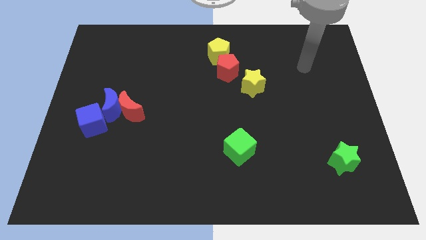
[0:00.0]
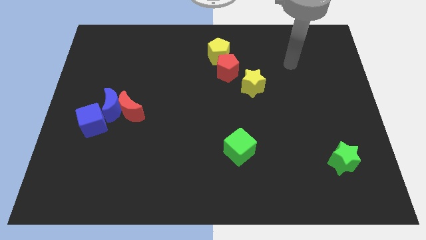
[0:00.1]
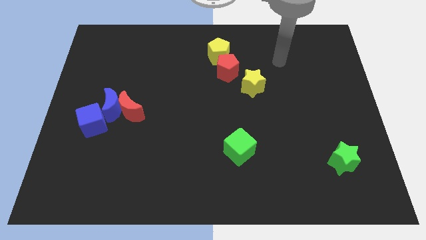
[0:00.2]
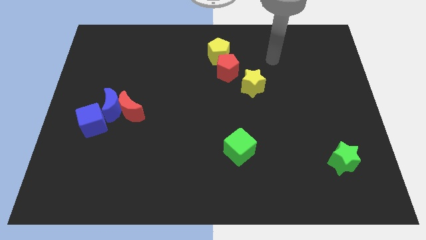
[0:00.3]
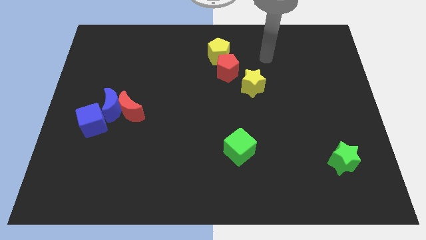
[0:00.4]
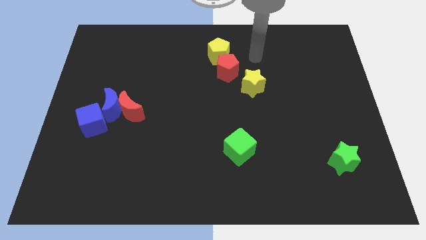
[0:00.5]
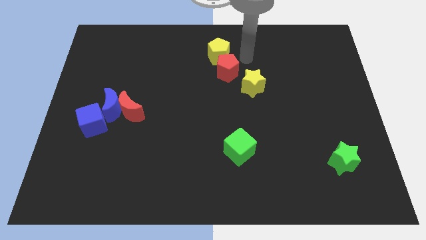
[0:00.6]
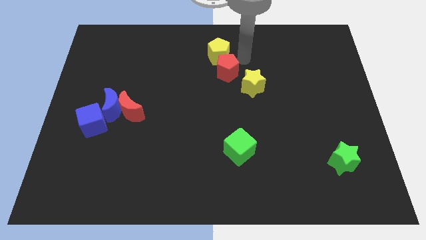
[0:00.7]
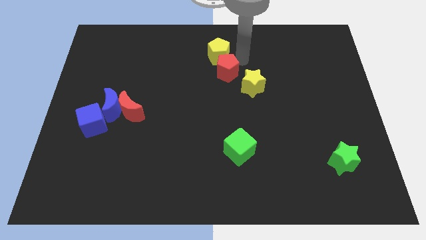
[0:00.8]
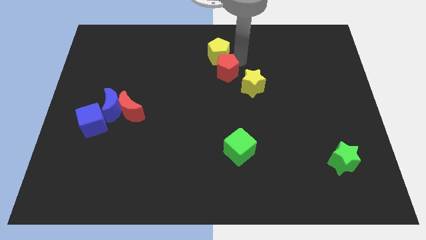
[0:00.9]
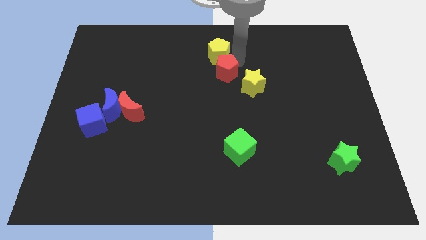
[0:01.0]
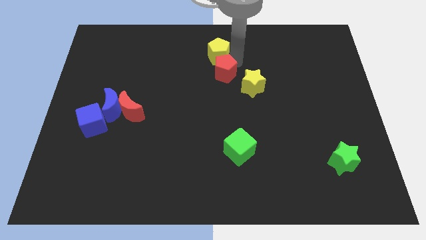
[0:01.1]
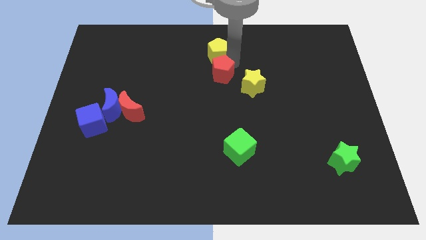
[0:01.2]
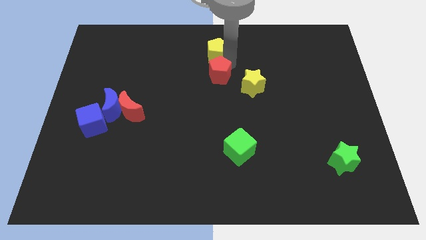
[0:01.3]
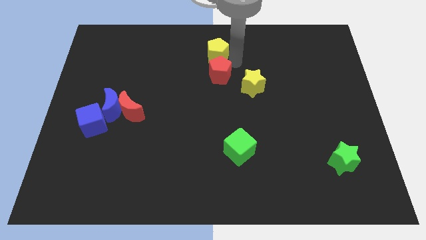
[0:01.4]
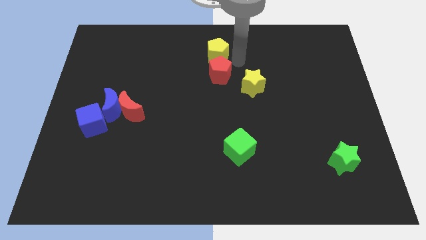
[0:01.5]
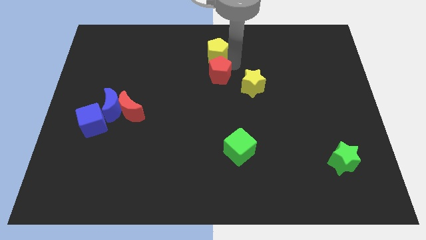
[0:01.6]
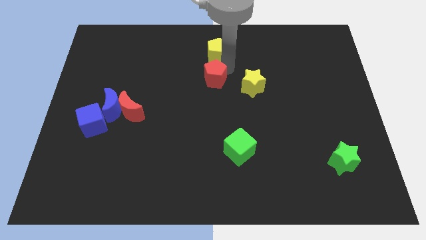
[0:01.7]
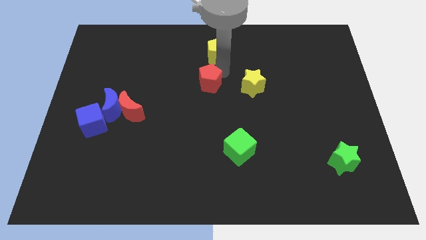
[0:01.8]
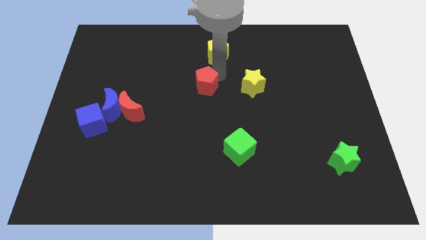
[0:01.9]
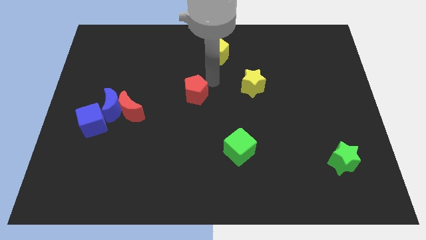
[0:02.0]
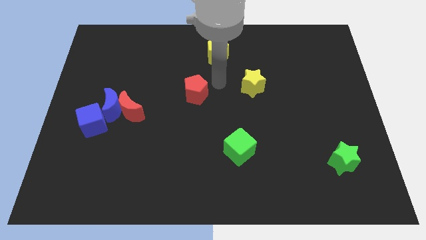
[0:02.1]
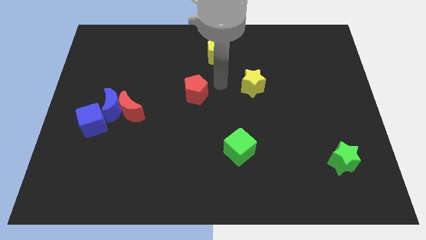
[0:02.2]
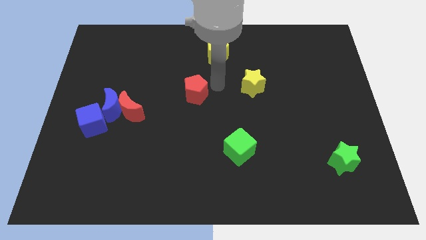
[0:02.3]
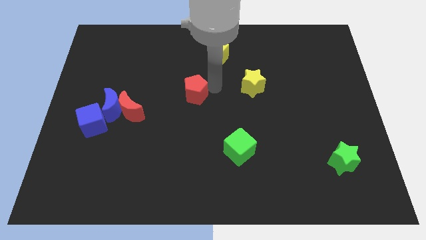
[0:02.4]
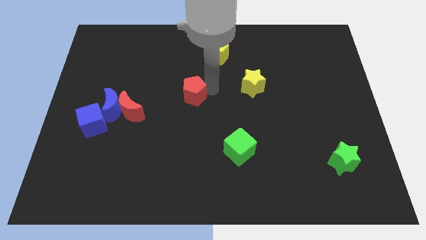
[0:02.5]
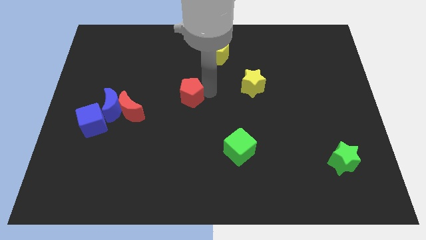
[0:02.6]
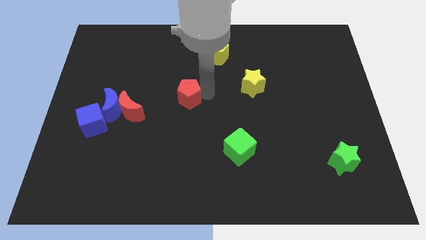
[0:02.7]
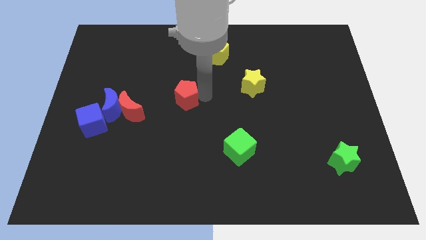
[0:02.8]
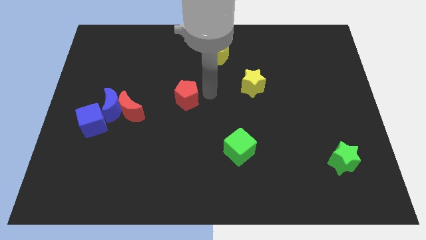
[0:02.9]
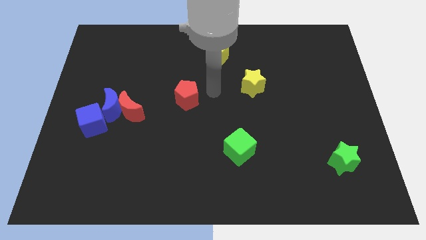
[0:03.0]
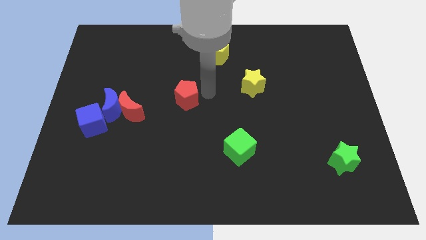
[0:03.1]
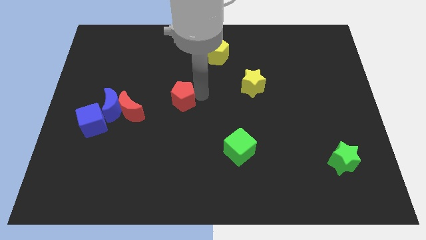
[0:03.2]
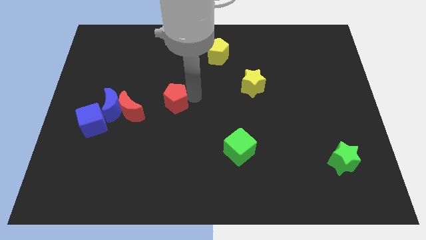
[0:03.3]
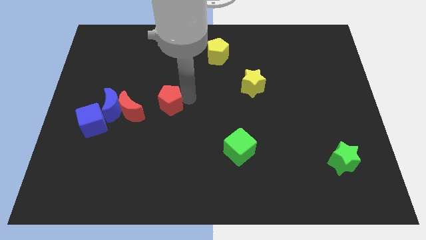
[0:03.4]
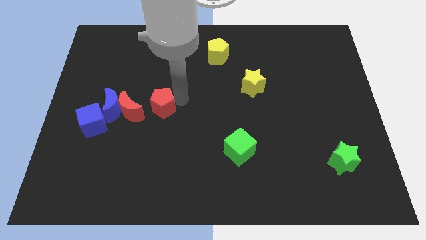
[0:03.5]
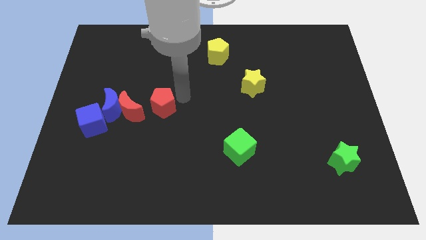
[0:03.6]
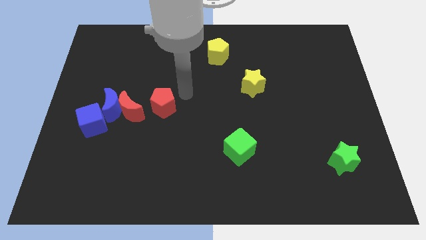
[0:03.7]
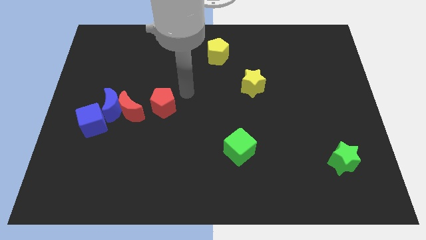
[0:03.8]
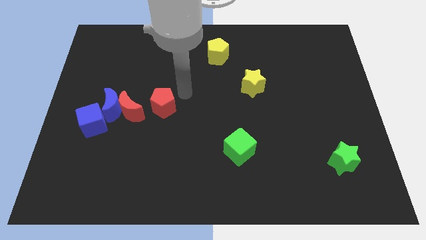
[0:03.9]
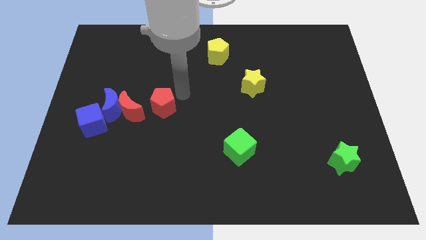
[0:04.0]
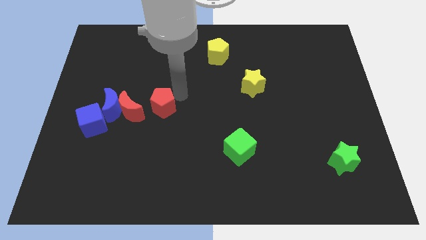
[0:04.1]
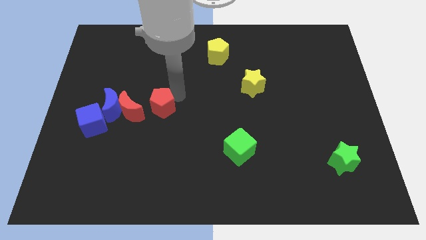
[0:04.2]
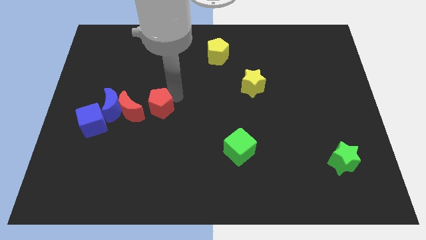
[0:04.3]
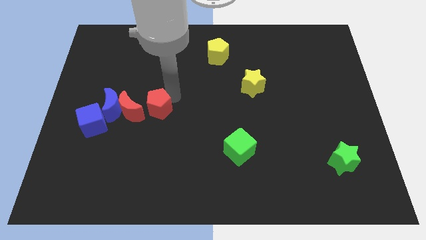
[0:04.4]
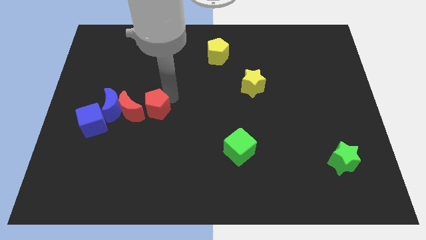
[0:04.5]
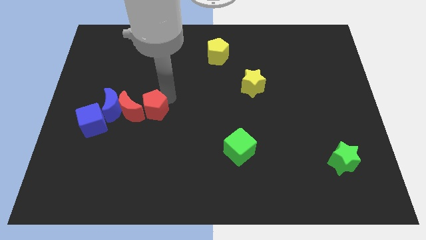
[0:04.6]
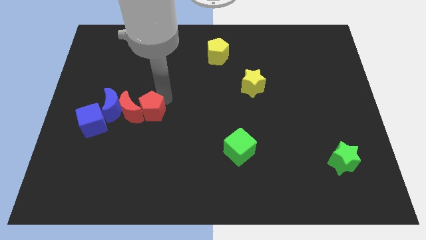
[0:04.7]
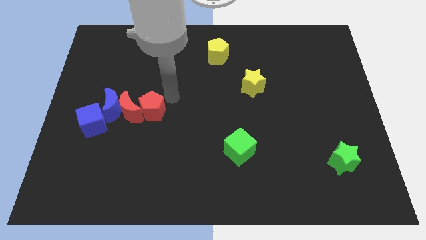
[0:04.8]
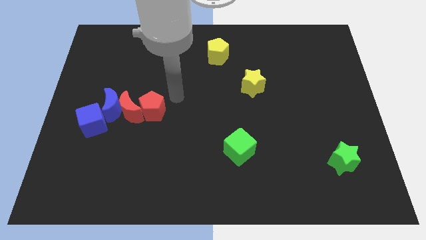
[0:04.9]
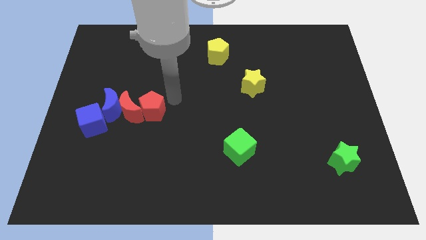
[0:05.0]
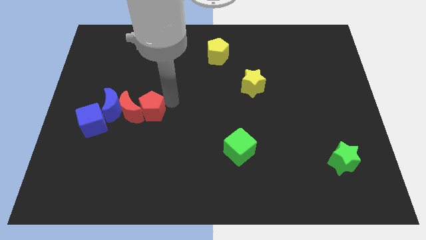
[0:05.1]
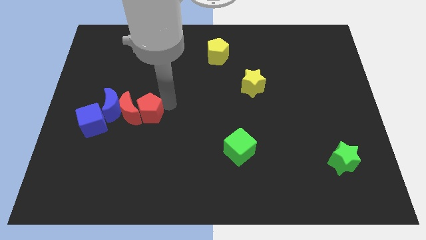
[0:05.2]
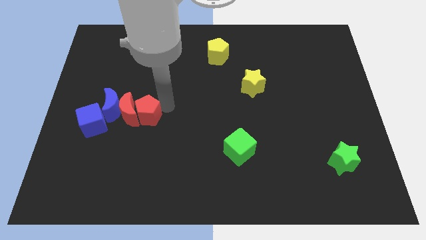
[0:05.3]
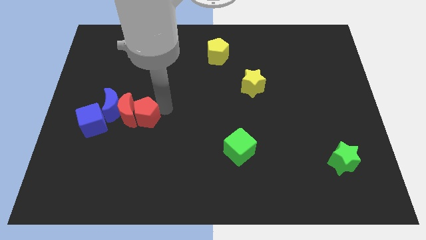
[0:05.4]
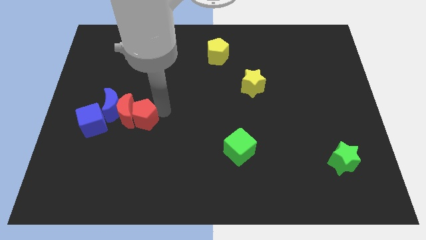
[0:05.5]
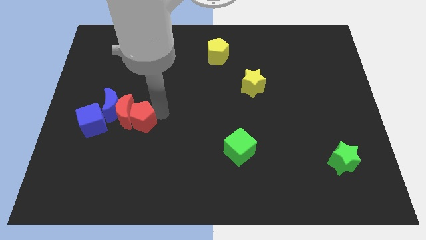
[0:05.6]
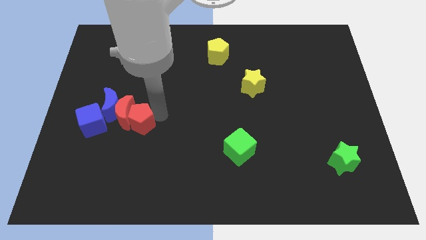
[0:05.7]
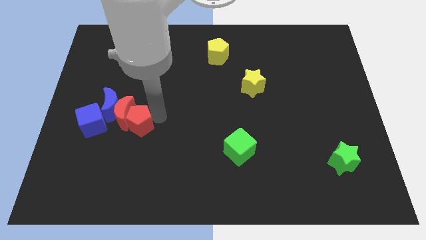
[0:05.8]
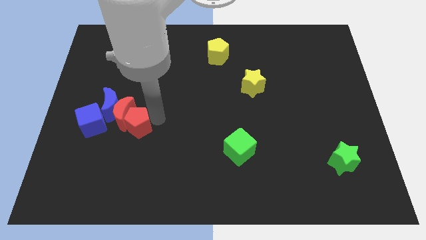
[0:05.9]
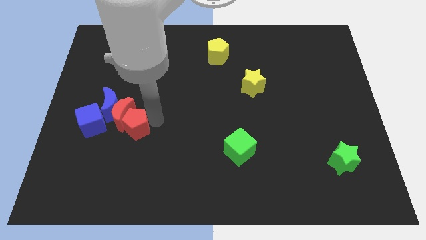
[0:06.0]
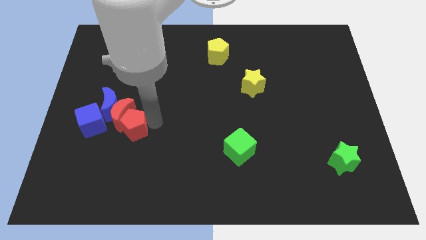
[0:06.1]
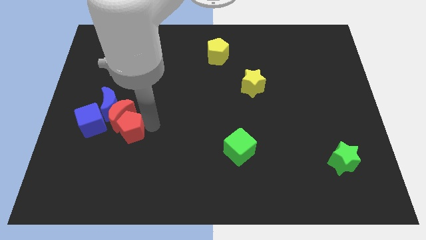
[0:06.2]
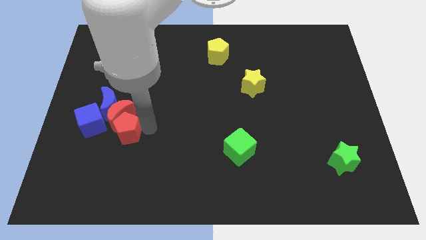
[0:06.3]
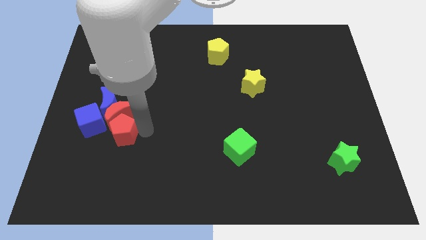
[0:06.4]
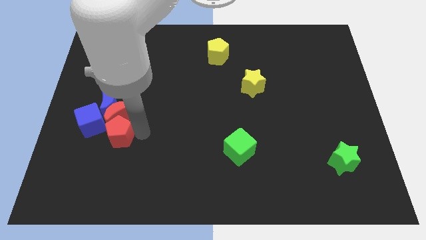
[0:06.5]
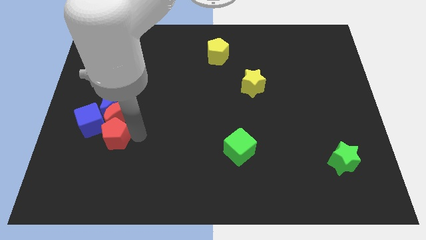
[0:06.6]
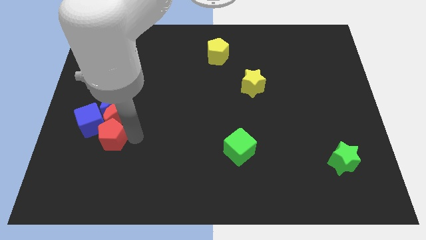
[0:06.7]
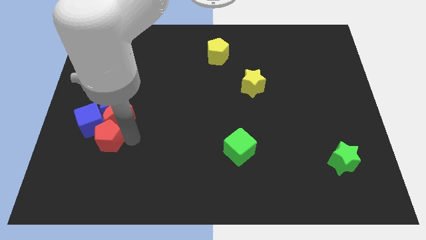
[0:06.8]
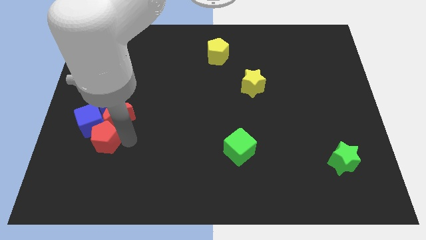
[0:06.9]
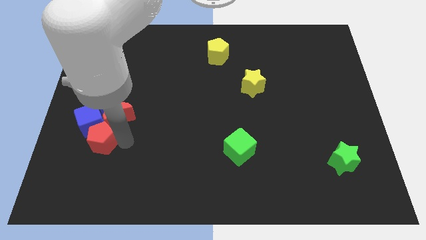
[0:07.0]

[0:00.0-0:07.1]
push the red pentagon towards the blue cube
